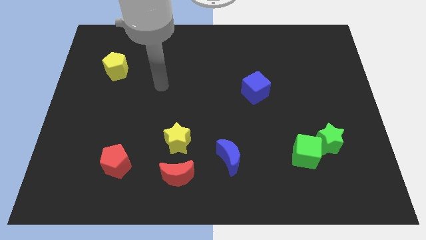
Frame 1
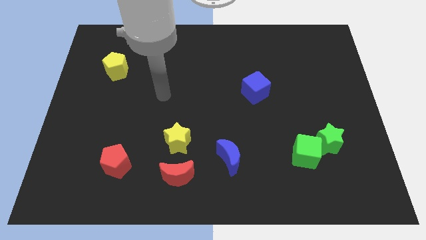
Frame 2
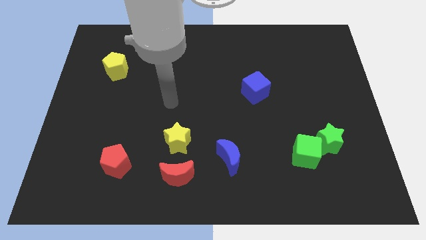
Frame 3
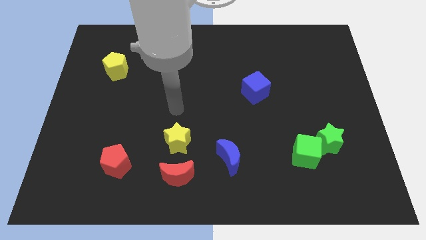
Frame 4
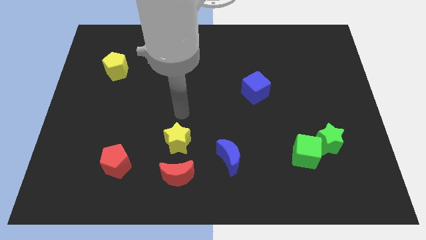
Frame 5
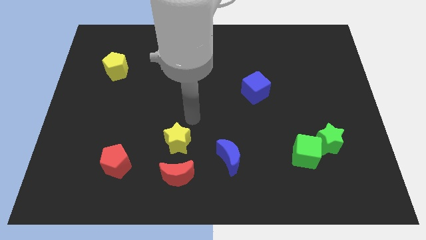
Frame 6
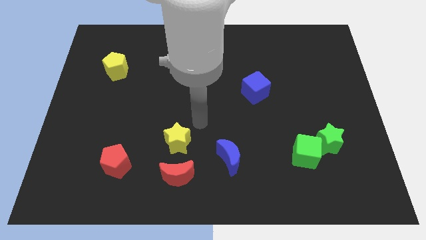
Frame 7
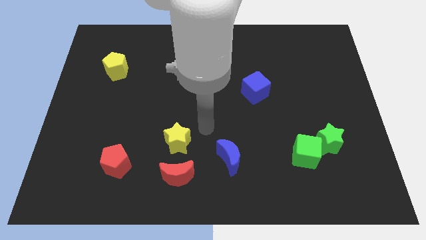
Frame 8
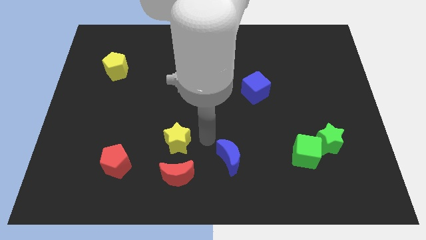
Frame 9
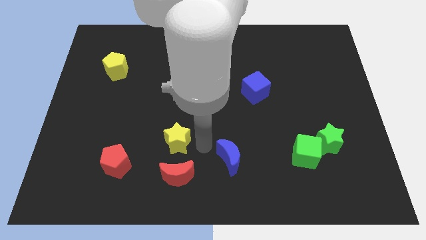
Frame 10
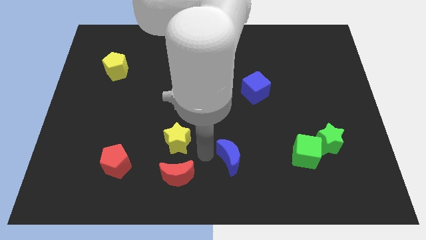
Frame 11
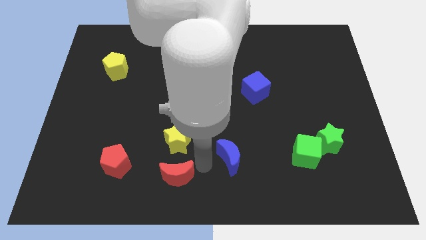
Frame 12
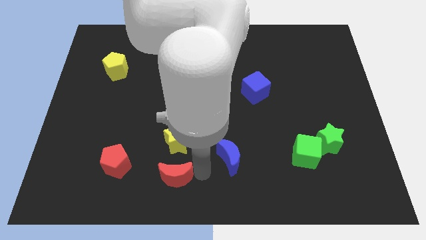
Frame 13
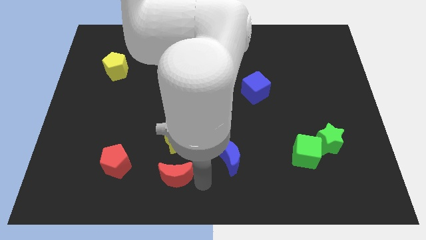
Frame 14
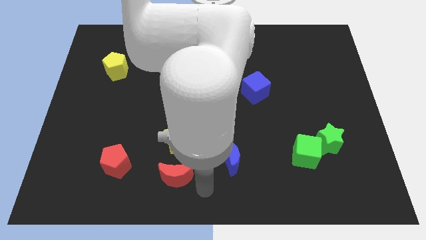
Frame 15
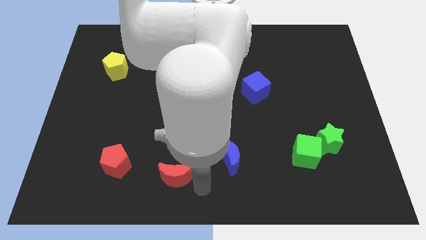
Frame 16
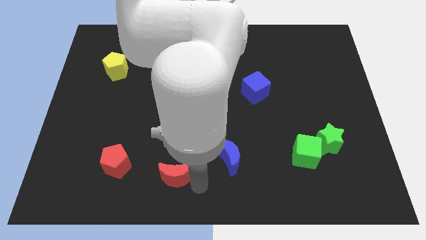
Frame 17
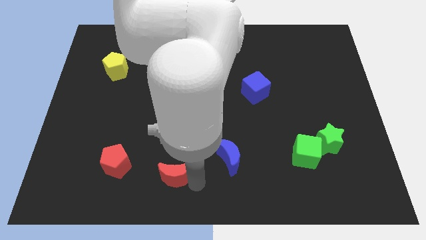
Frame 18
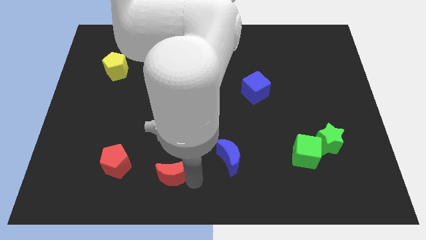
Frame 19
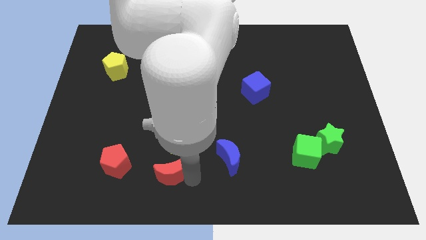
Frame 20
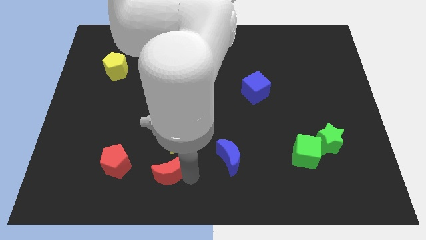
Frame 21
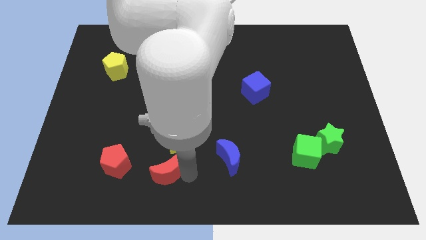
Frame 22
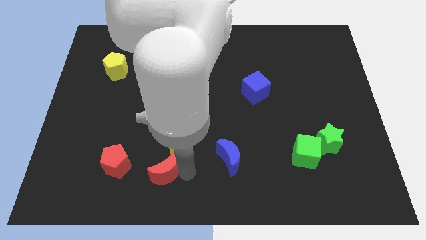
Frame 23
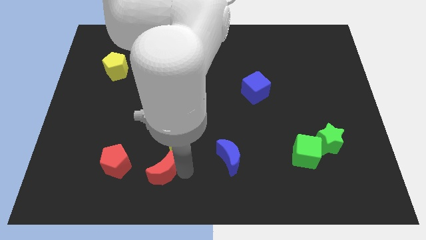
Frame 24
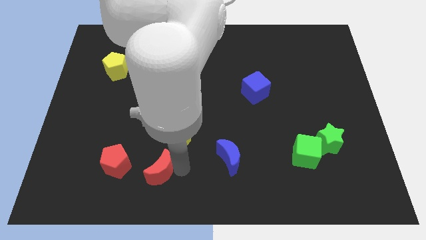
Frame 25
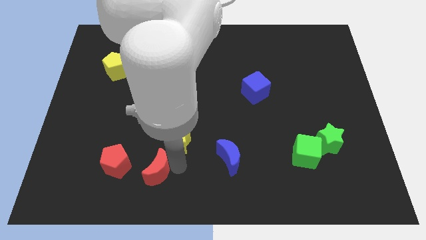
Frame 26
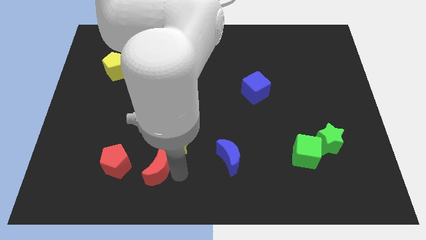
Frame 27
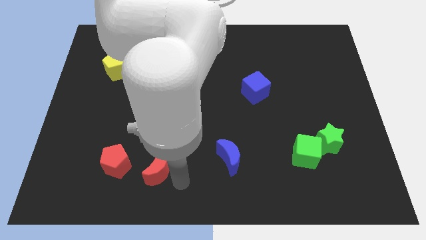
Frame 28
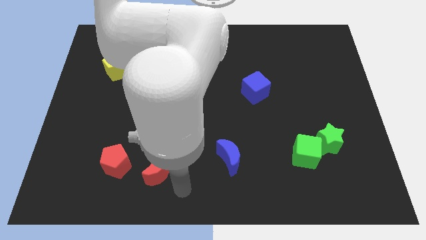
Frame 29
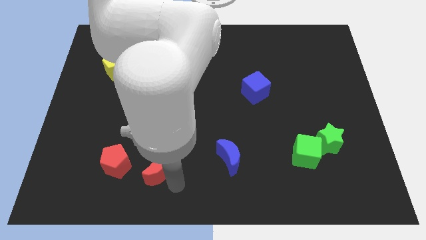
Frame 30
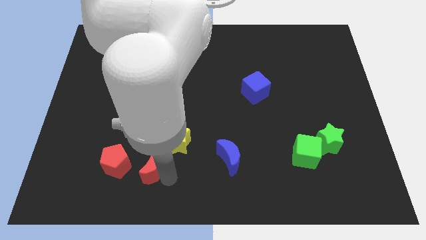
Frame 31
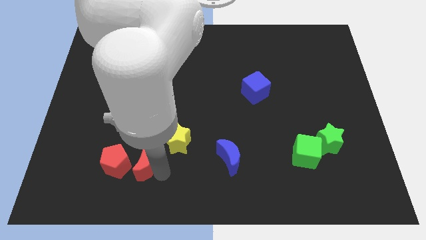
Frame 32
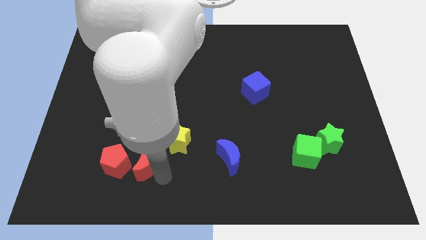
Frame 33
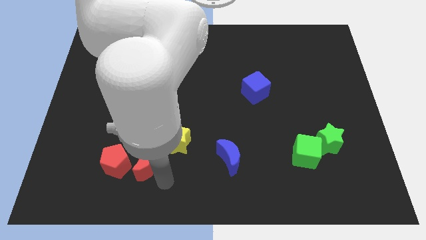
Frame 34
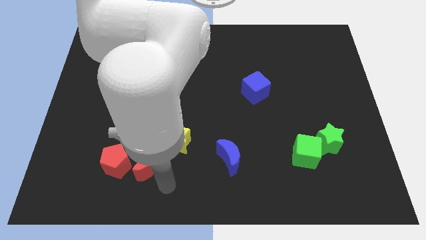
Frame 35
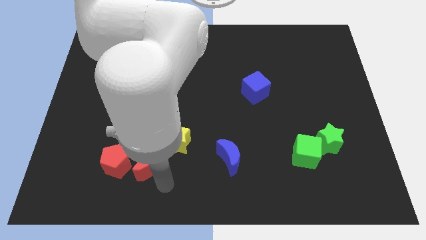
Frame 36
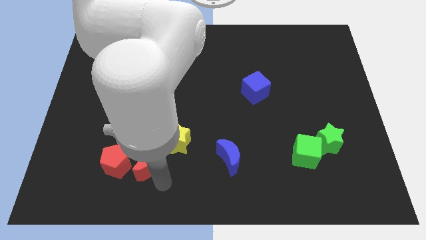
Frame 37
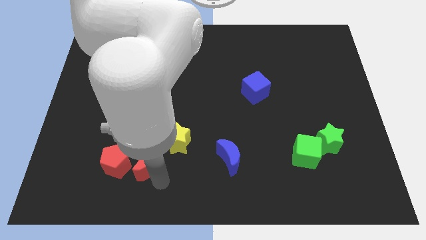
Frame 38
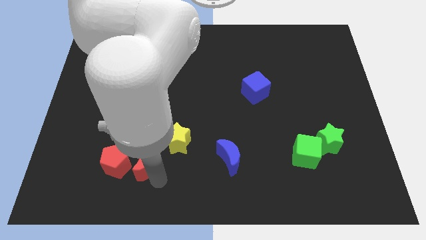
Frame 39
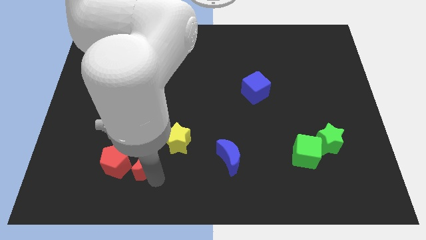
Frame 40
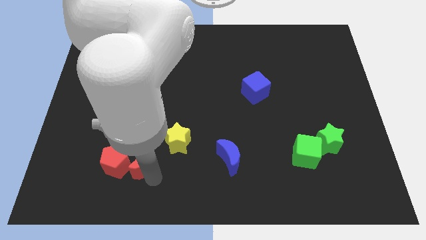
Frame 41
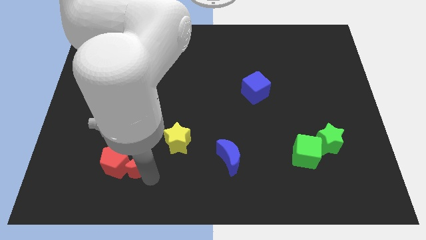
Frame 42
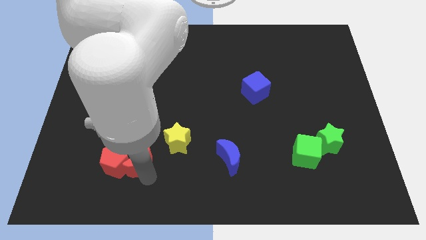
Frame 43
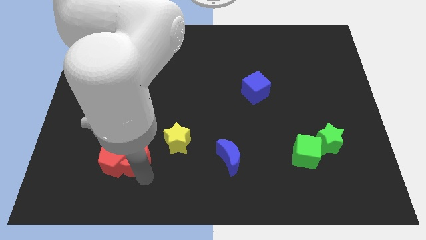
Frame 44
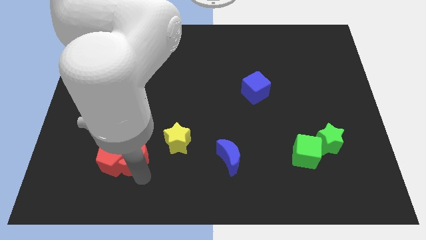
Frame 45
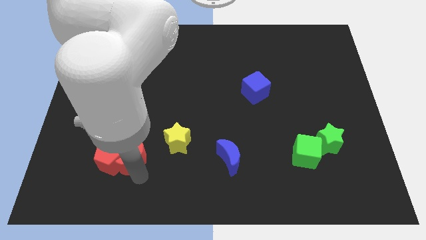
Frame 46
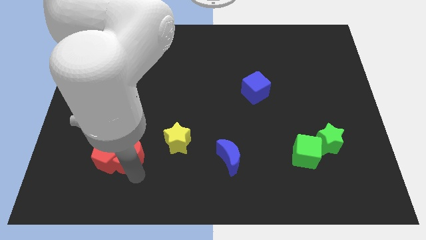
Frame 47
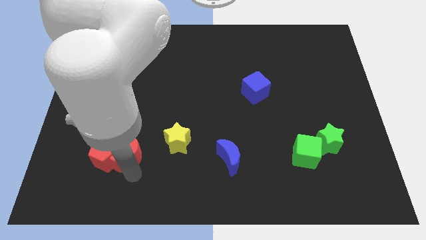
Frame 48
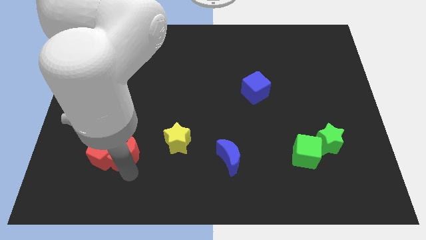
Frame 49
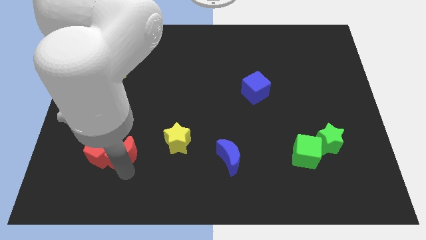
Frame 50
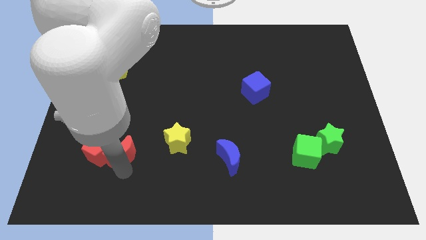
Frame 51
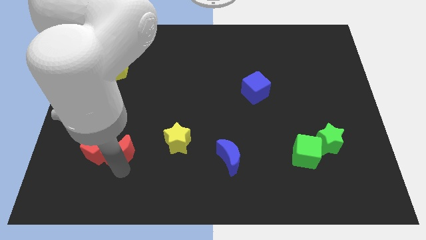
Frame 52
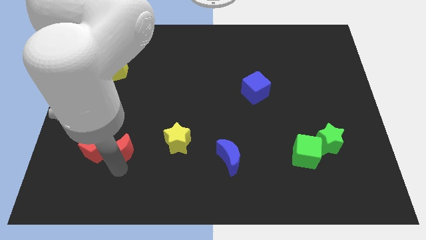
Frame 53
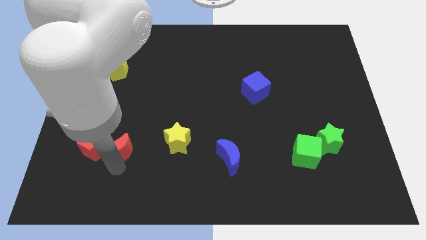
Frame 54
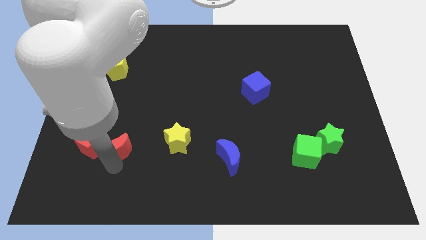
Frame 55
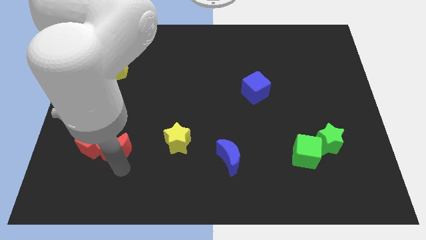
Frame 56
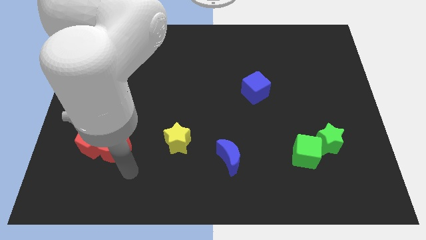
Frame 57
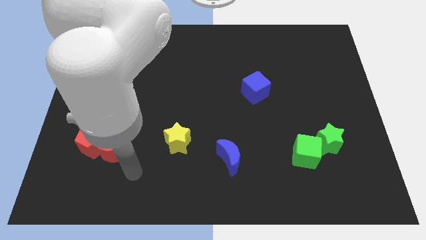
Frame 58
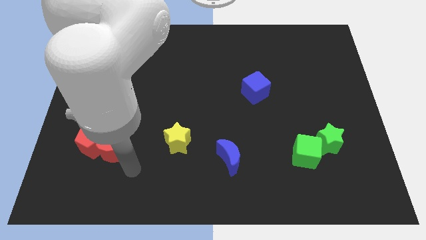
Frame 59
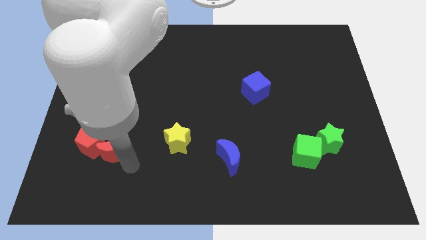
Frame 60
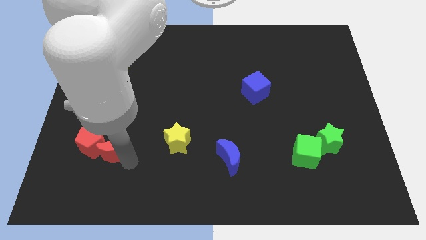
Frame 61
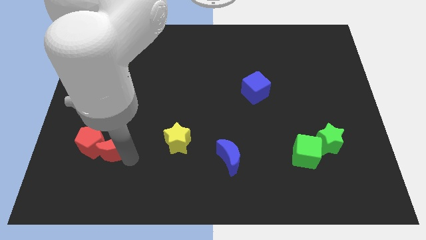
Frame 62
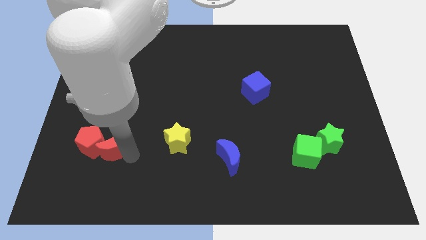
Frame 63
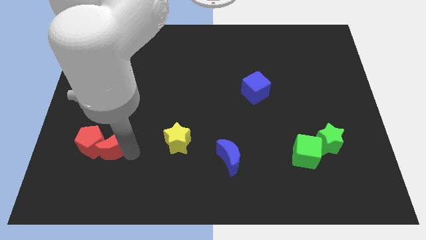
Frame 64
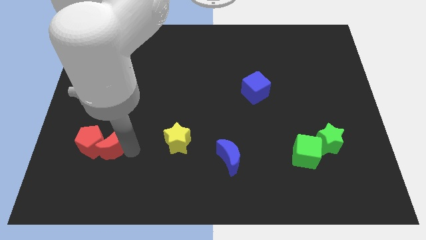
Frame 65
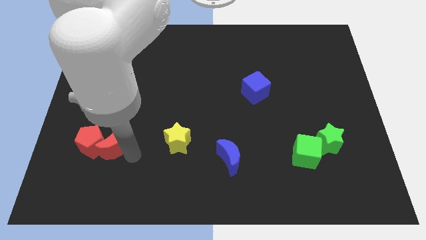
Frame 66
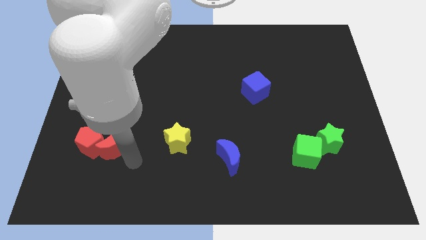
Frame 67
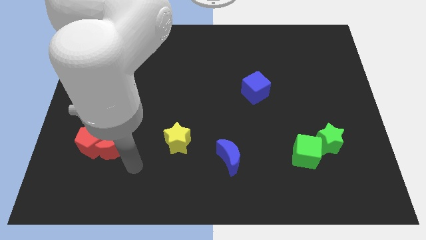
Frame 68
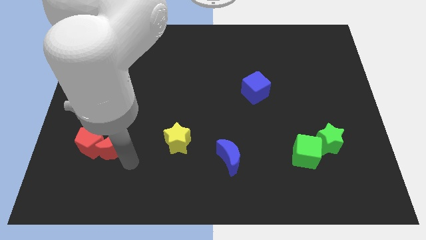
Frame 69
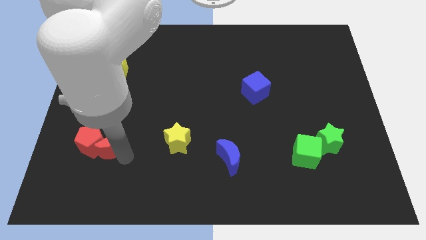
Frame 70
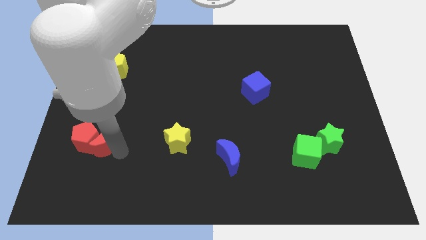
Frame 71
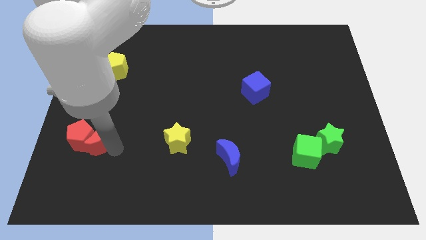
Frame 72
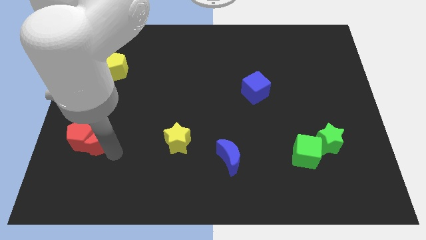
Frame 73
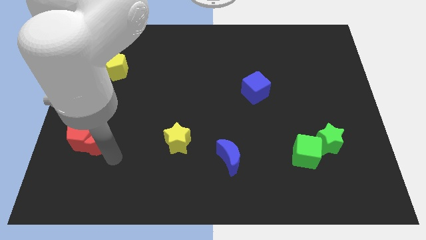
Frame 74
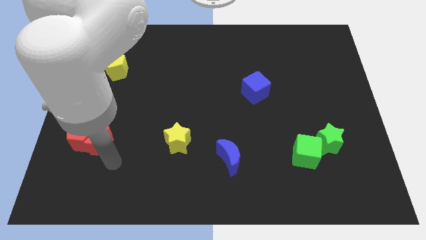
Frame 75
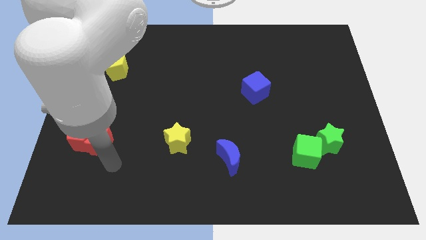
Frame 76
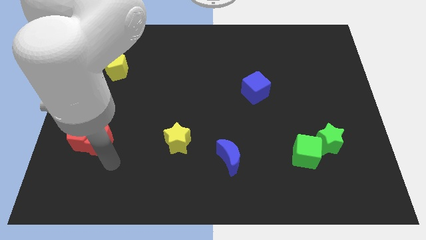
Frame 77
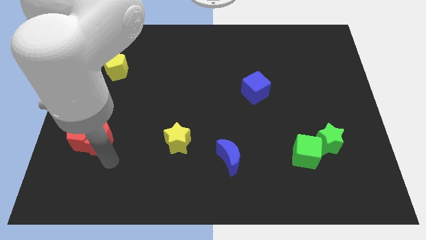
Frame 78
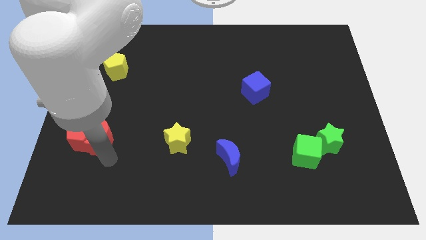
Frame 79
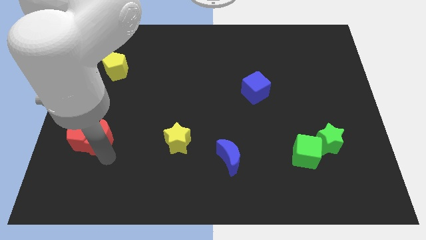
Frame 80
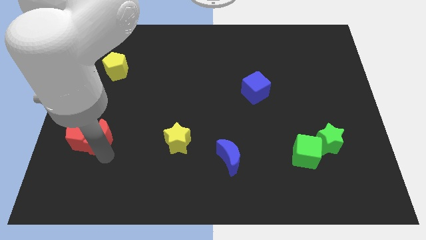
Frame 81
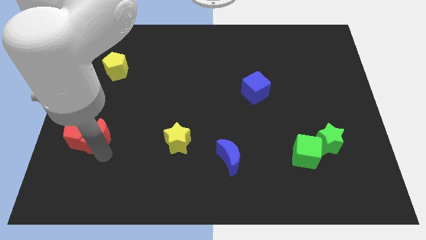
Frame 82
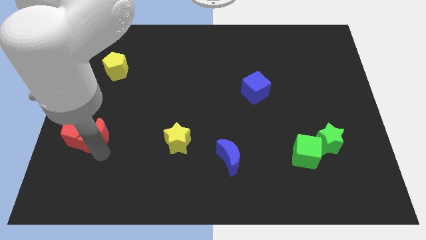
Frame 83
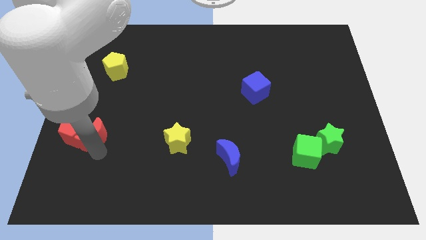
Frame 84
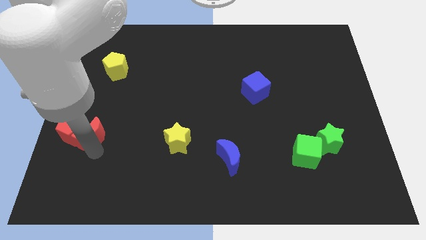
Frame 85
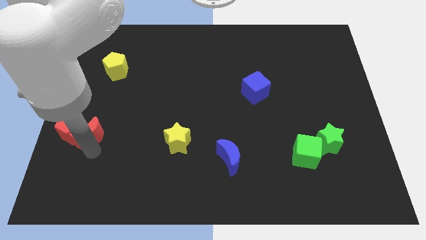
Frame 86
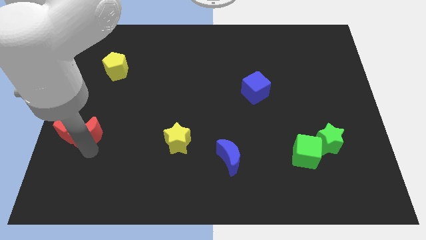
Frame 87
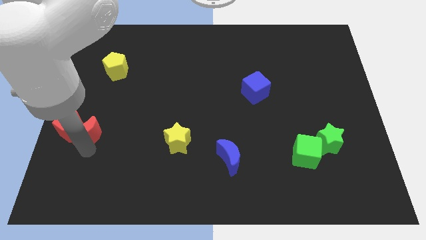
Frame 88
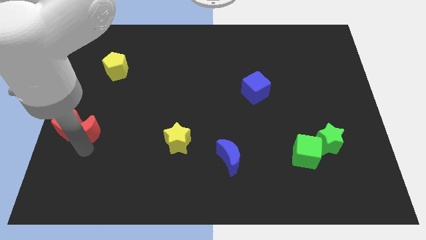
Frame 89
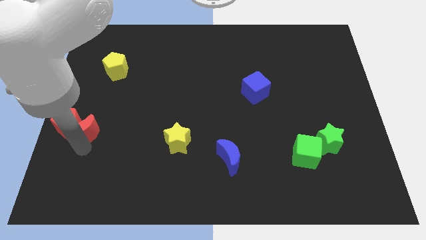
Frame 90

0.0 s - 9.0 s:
move the red moon to the left side
